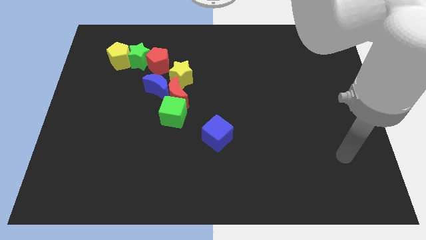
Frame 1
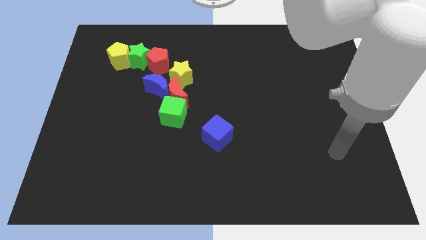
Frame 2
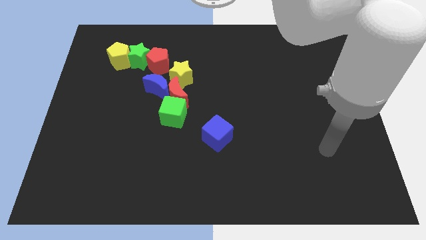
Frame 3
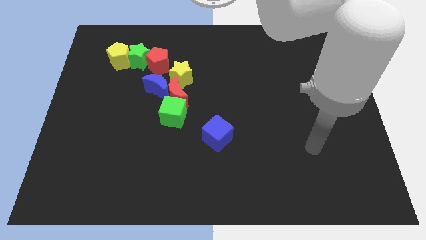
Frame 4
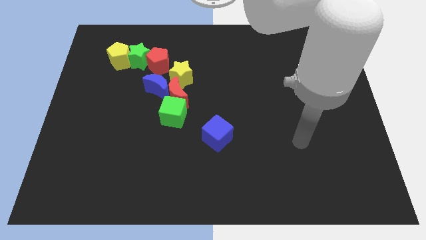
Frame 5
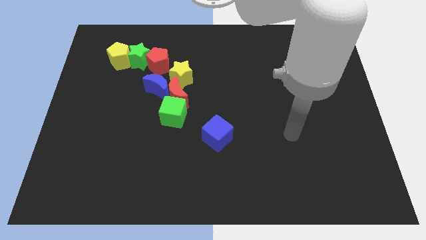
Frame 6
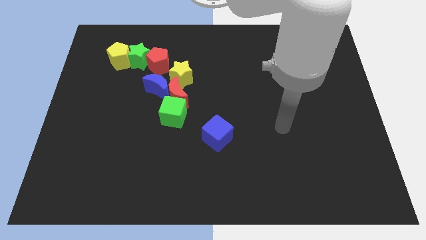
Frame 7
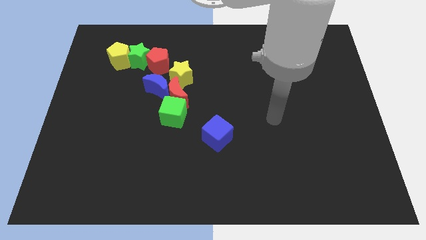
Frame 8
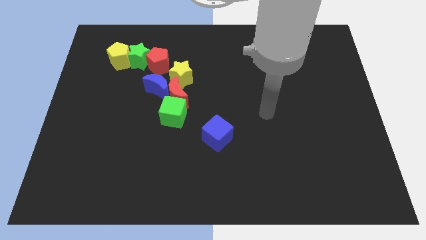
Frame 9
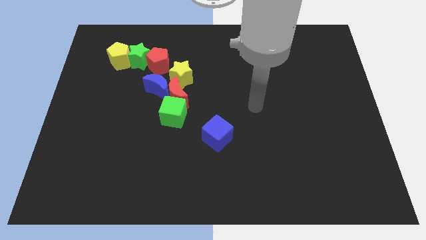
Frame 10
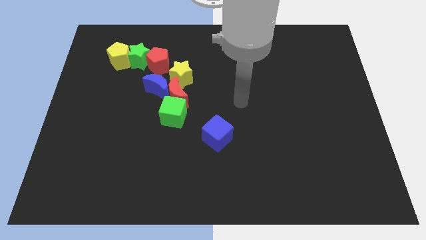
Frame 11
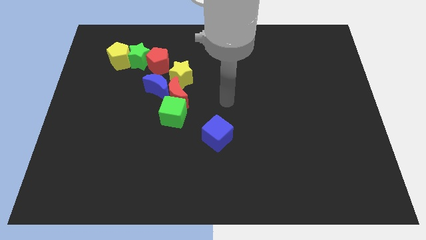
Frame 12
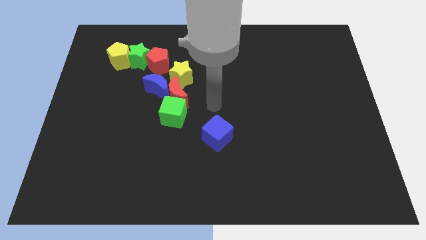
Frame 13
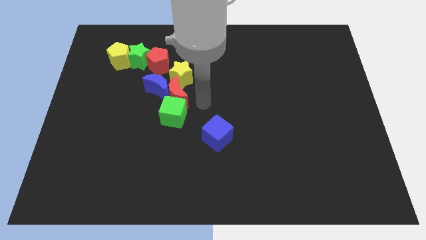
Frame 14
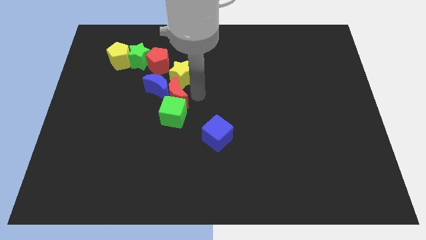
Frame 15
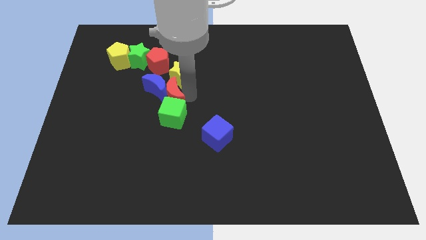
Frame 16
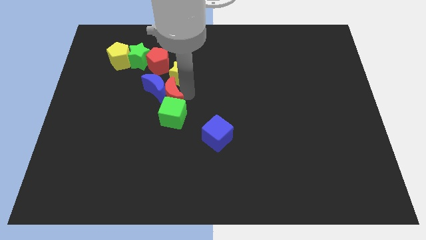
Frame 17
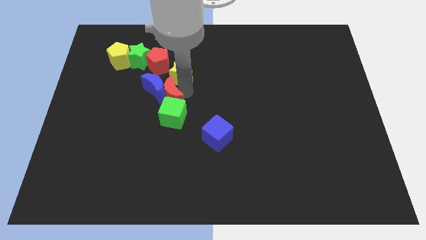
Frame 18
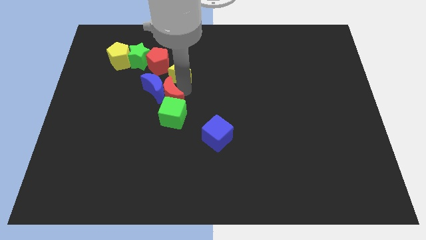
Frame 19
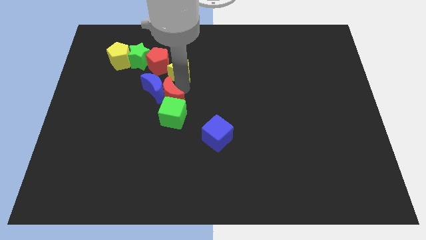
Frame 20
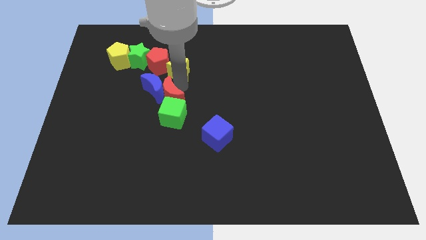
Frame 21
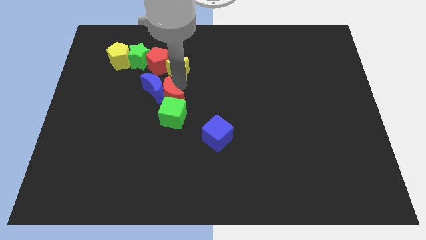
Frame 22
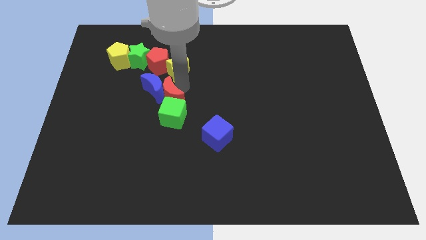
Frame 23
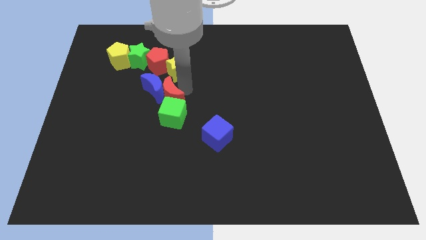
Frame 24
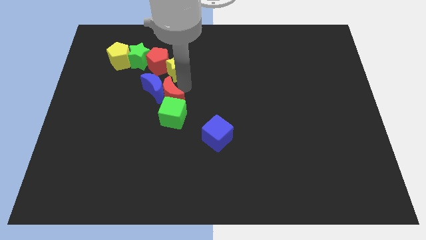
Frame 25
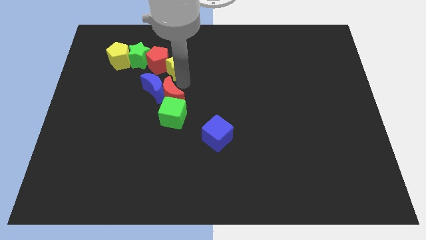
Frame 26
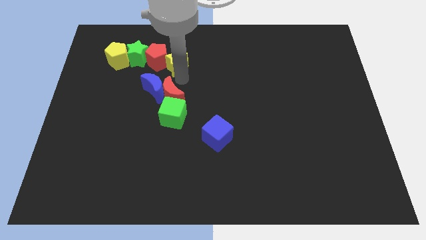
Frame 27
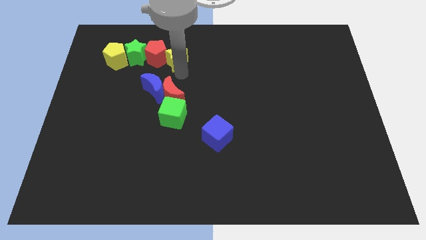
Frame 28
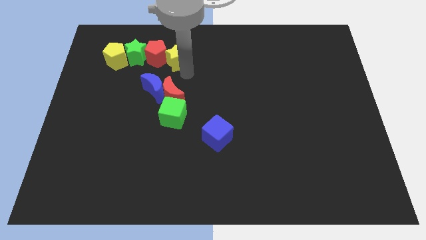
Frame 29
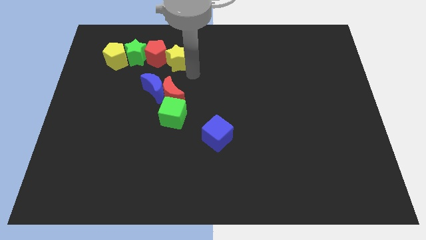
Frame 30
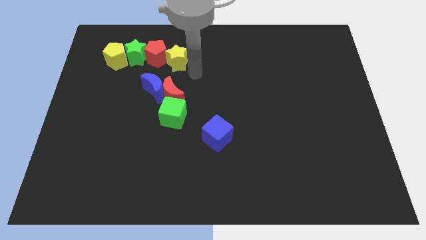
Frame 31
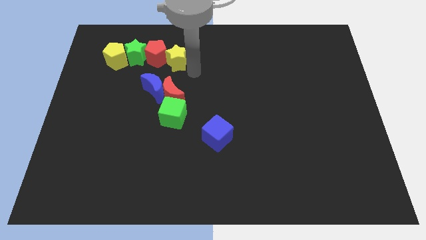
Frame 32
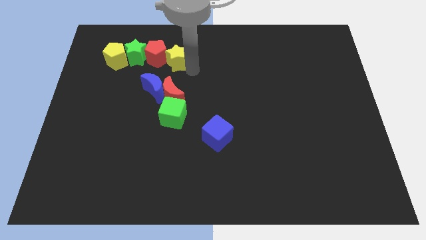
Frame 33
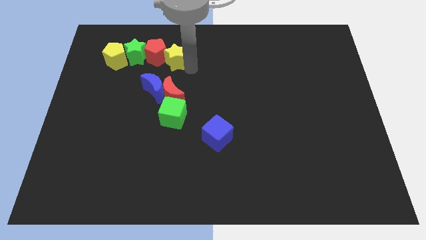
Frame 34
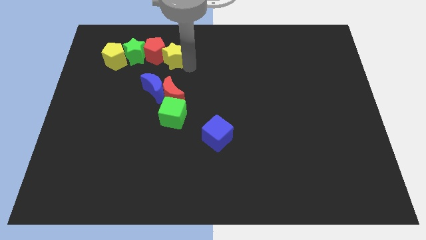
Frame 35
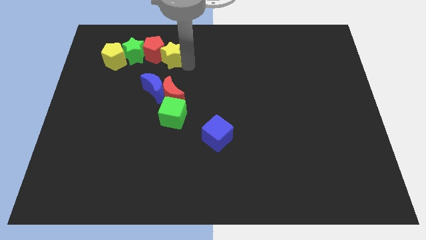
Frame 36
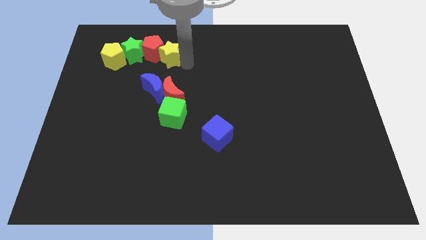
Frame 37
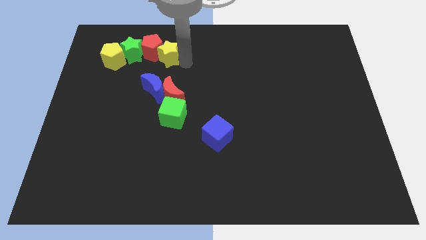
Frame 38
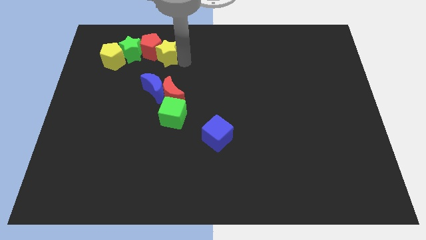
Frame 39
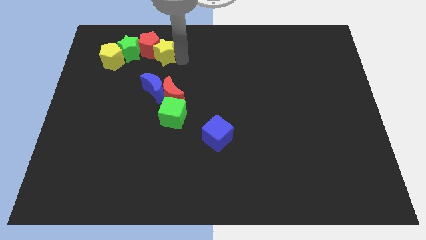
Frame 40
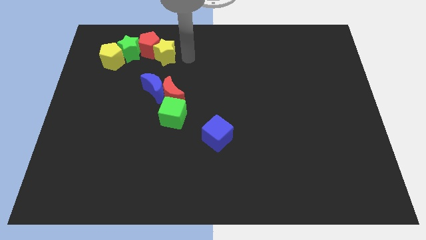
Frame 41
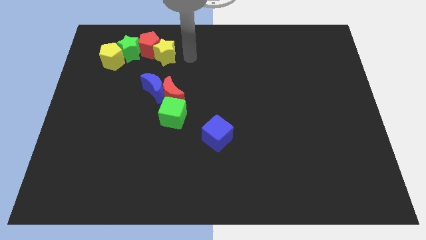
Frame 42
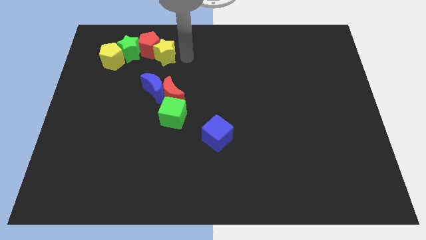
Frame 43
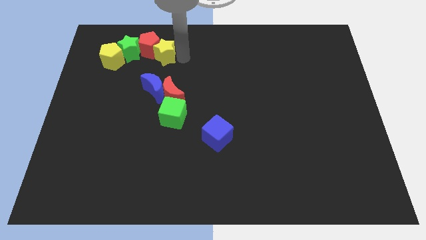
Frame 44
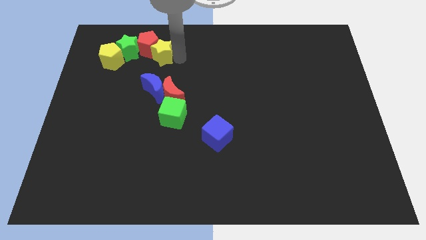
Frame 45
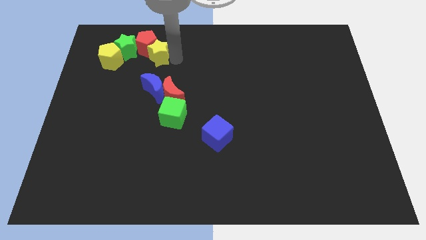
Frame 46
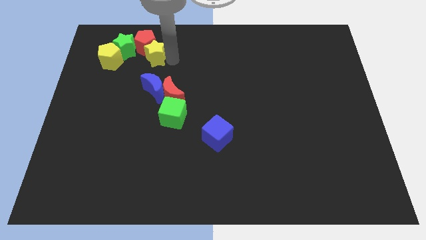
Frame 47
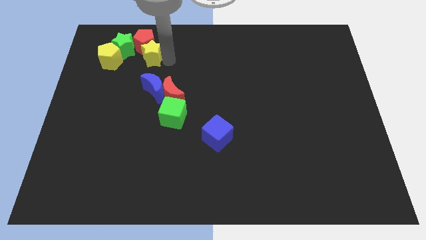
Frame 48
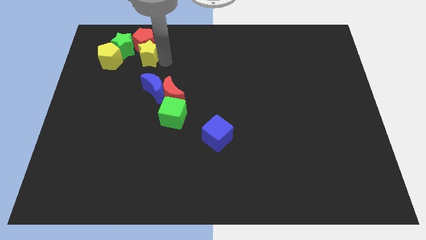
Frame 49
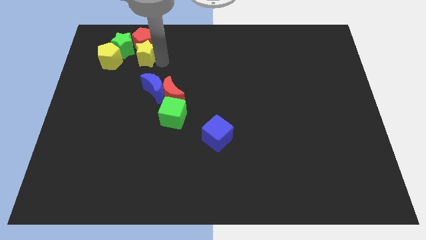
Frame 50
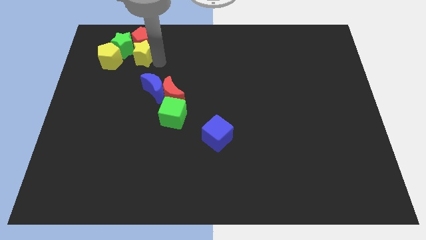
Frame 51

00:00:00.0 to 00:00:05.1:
put the yellow star to the green star

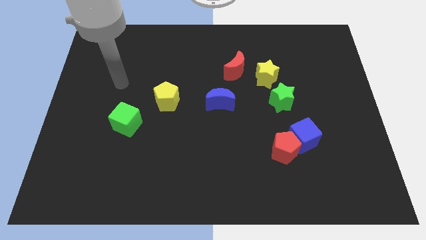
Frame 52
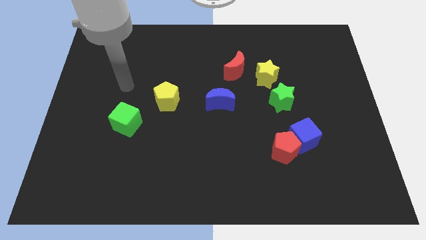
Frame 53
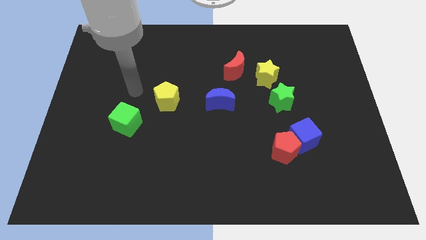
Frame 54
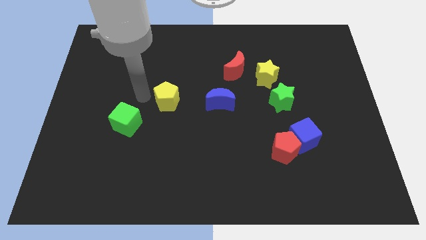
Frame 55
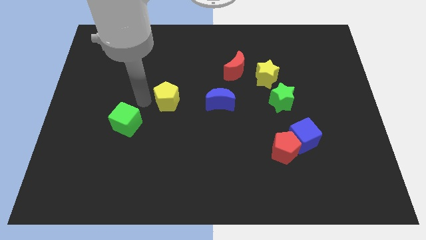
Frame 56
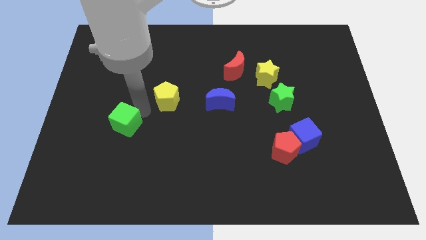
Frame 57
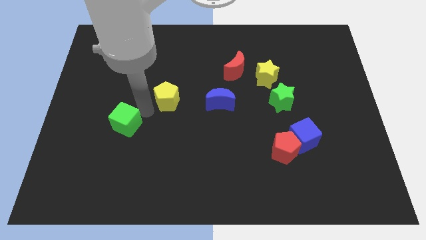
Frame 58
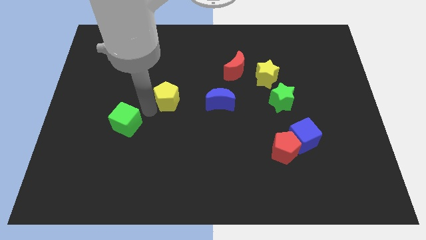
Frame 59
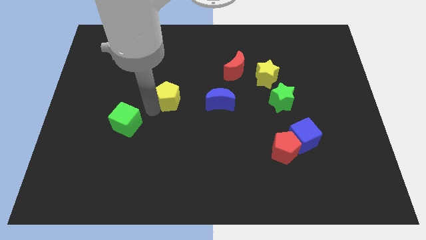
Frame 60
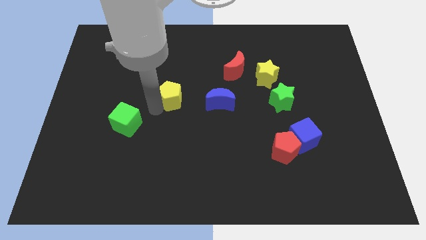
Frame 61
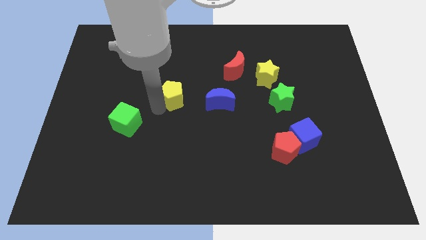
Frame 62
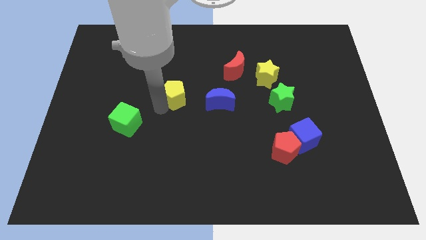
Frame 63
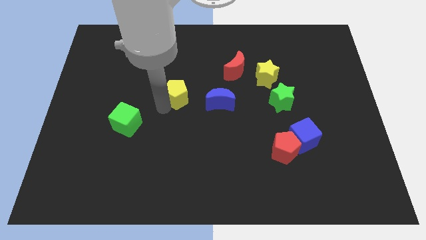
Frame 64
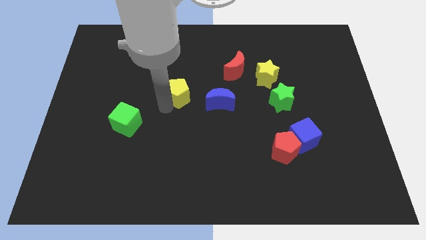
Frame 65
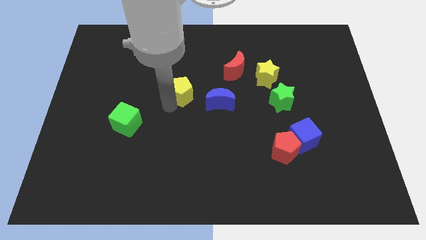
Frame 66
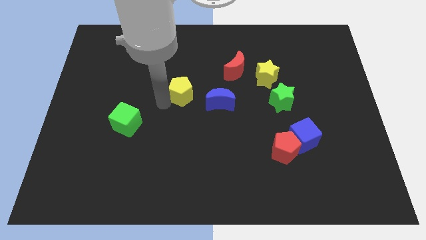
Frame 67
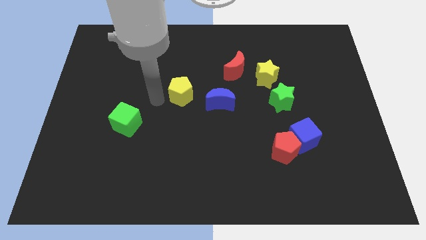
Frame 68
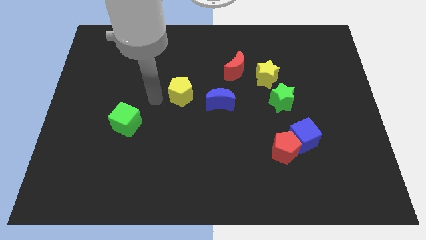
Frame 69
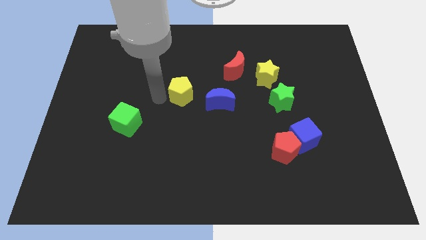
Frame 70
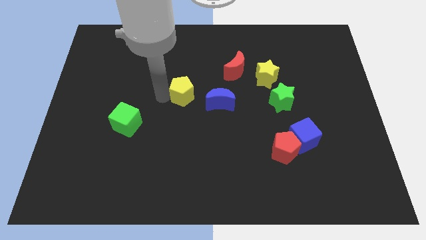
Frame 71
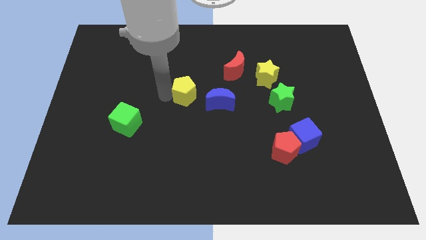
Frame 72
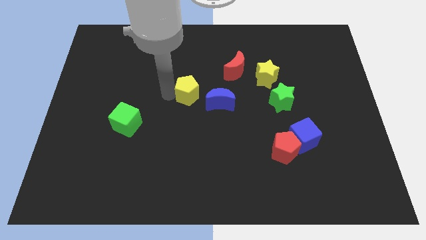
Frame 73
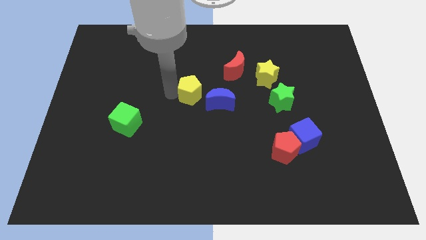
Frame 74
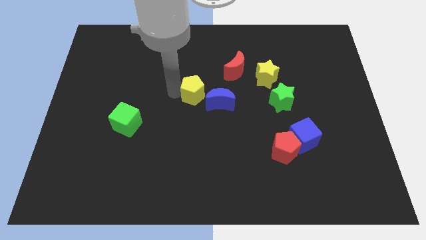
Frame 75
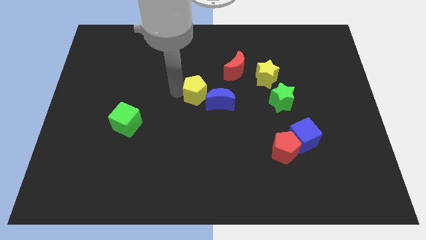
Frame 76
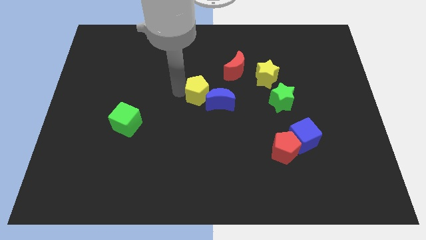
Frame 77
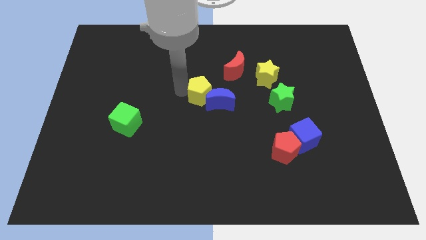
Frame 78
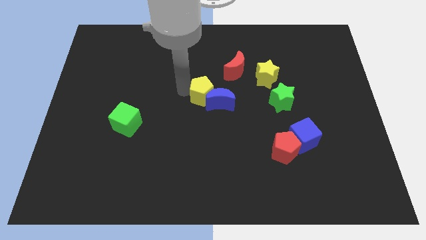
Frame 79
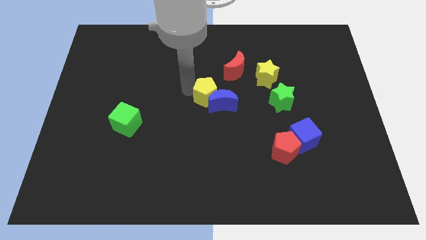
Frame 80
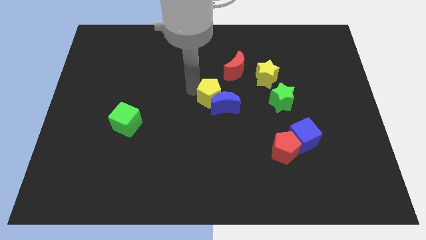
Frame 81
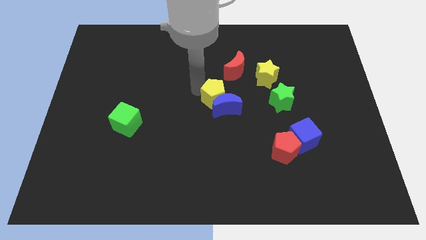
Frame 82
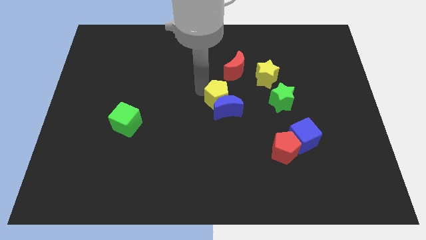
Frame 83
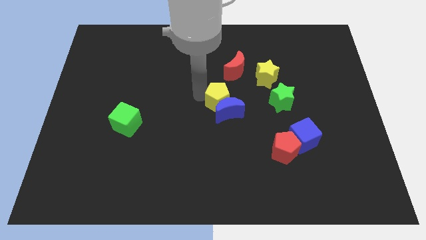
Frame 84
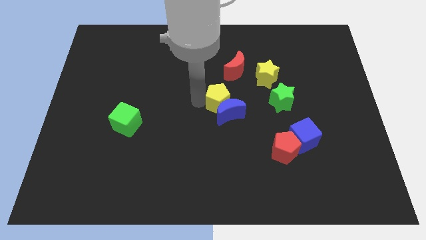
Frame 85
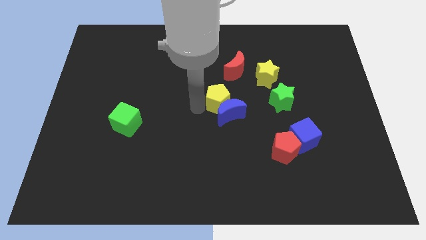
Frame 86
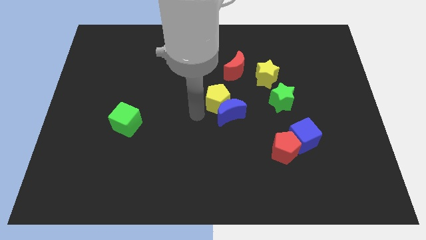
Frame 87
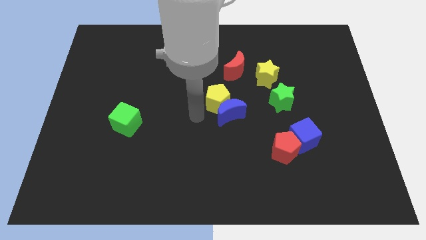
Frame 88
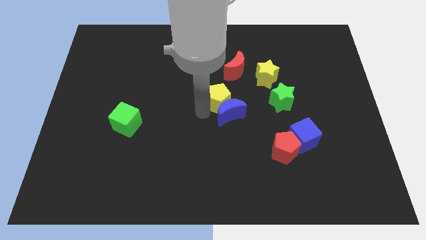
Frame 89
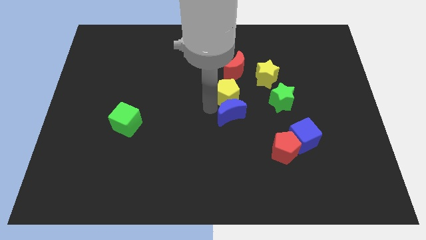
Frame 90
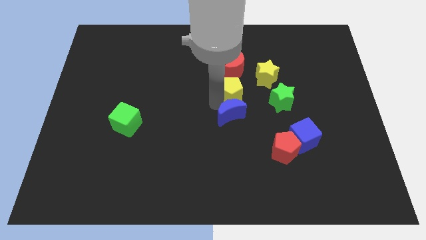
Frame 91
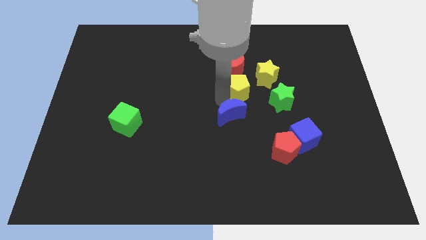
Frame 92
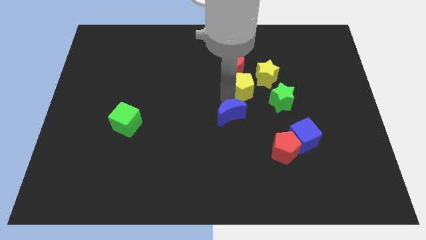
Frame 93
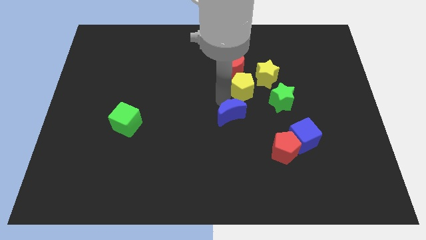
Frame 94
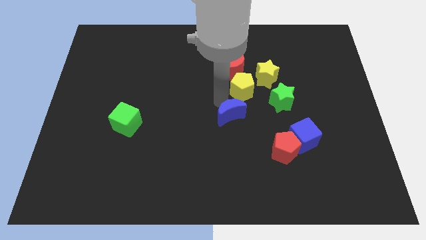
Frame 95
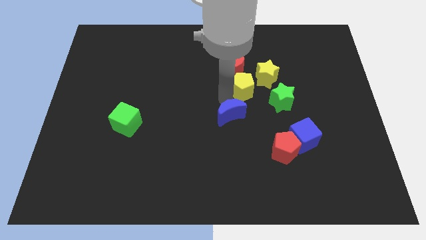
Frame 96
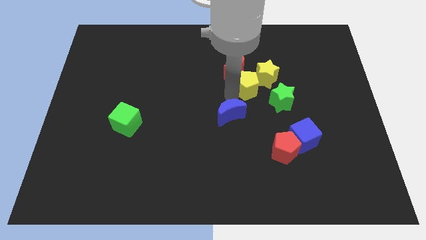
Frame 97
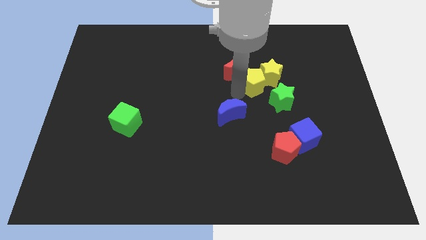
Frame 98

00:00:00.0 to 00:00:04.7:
move the yellow pentagon close to the yellow star
